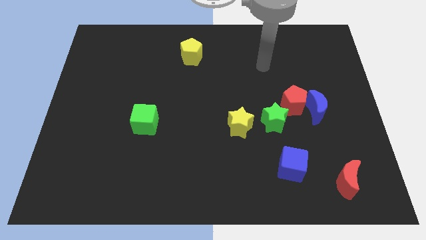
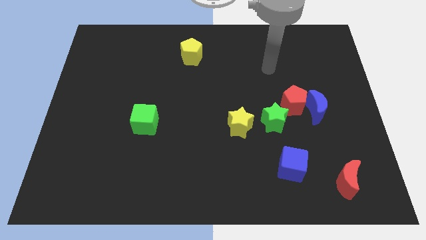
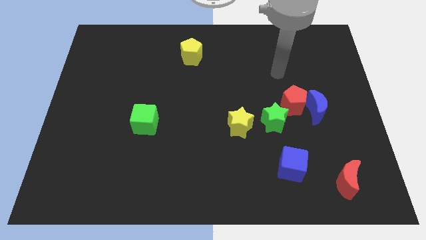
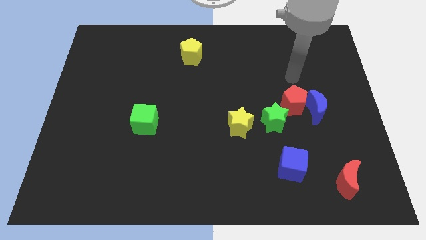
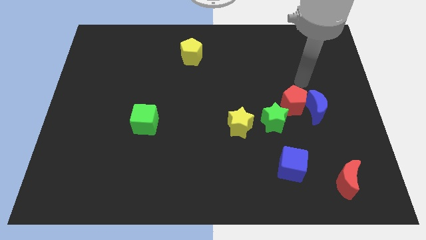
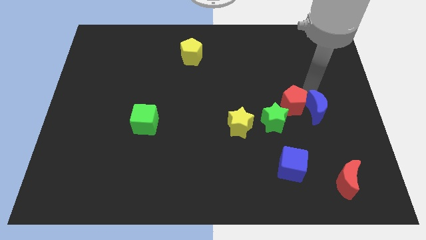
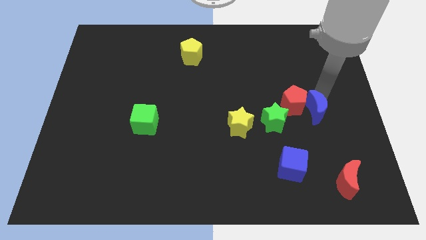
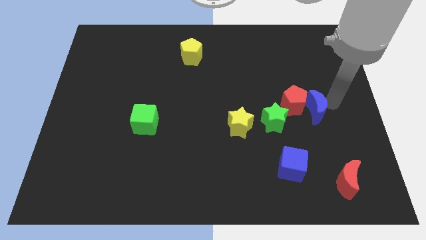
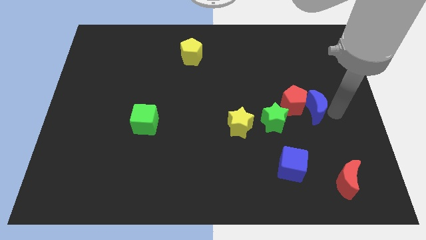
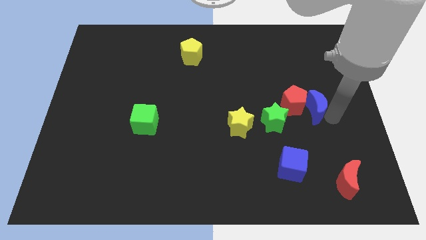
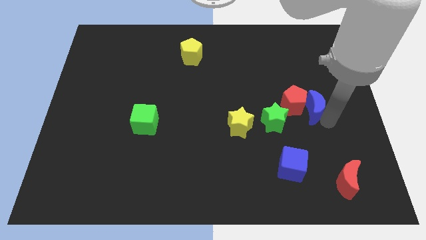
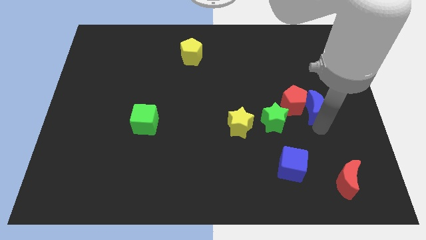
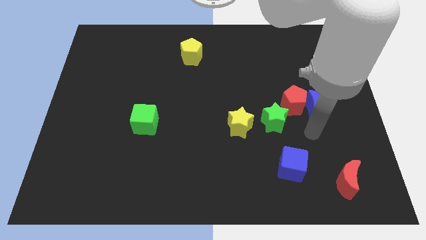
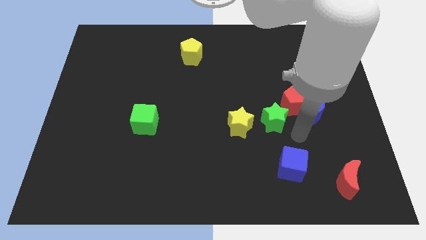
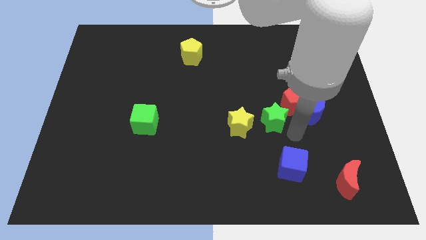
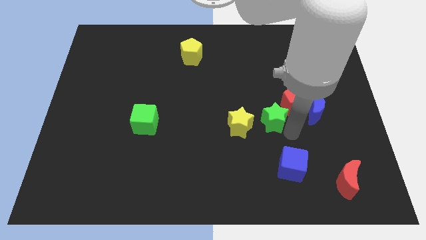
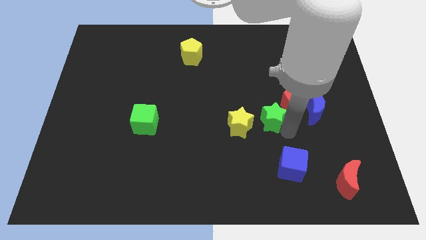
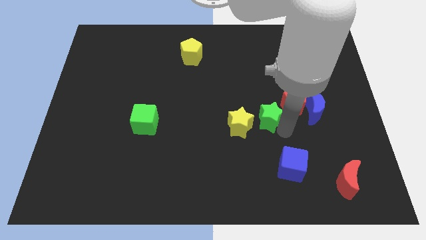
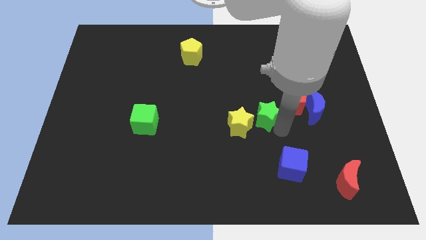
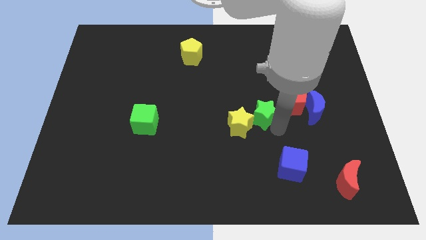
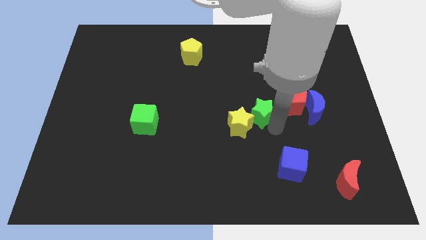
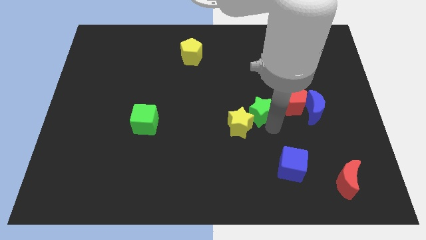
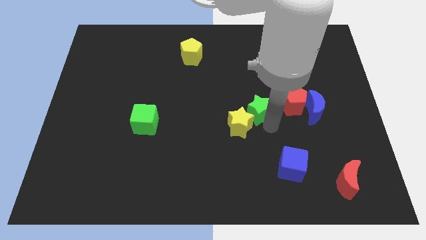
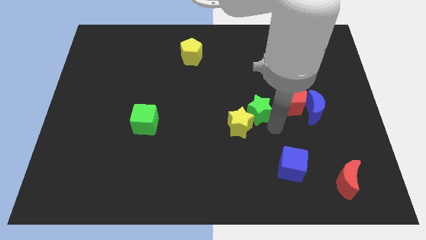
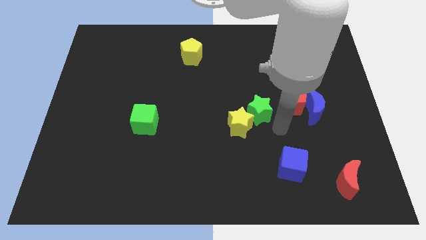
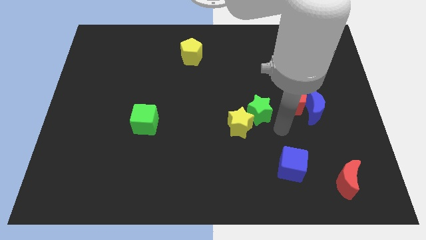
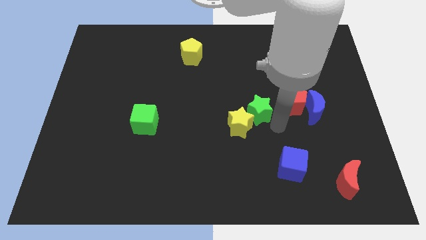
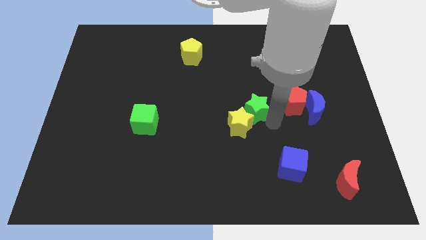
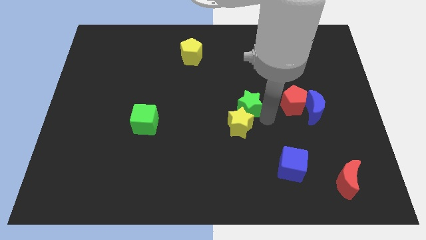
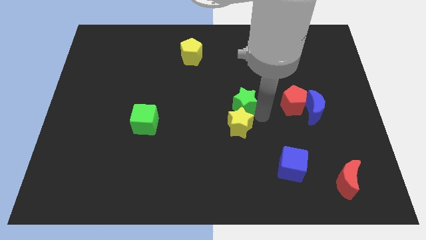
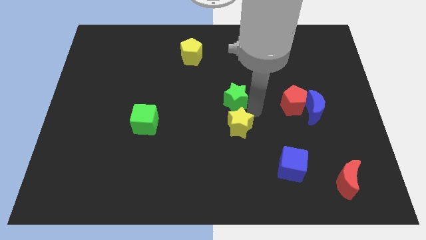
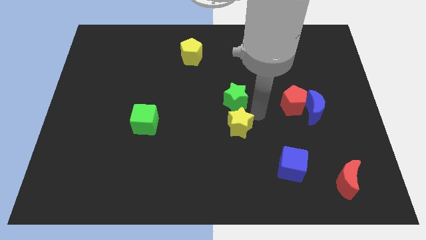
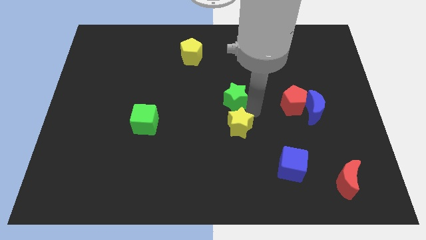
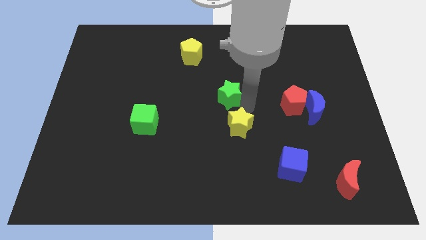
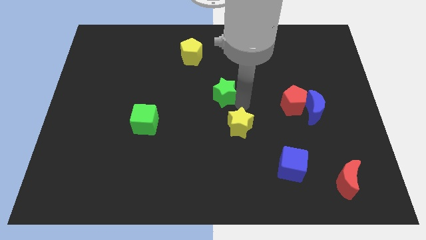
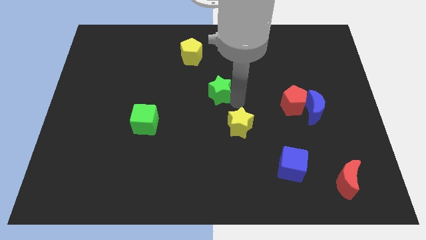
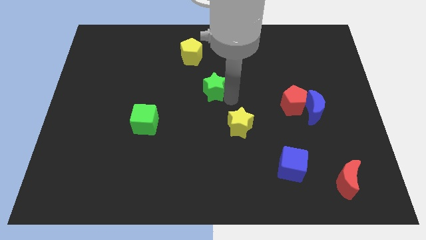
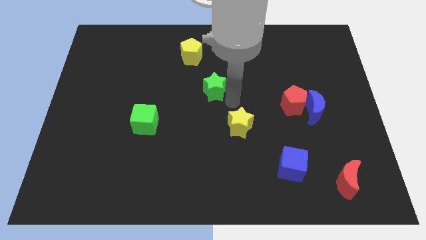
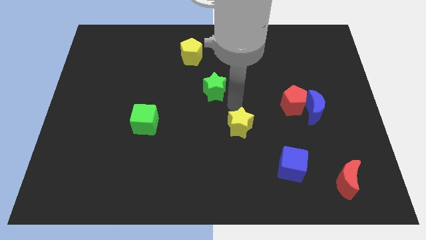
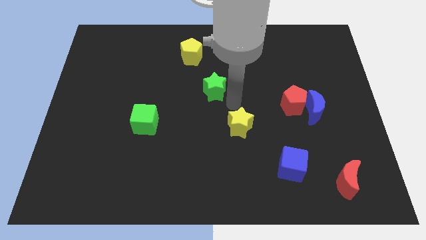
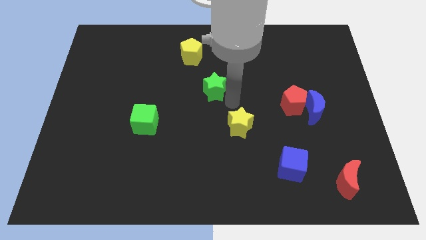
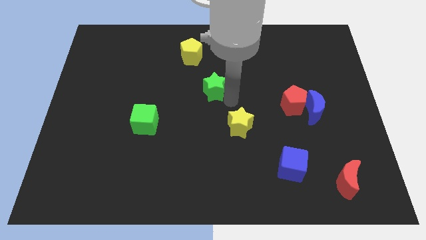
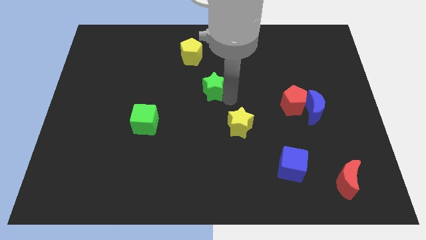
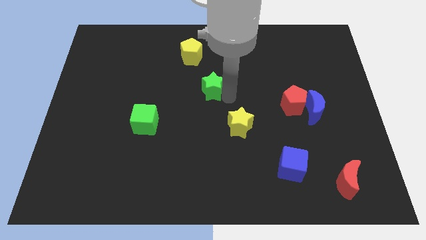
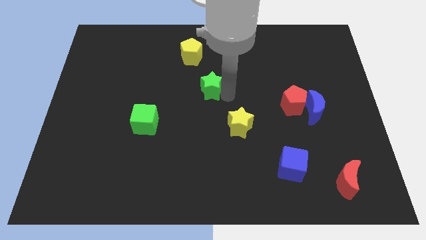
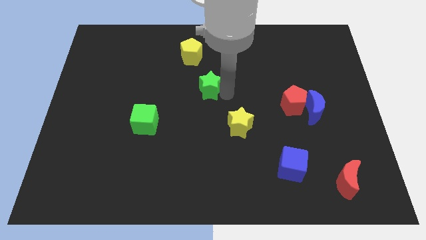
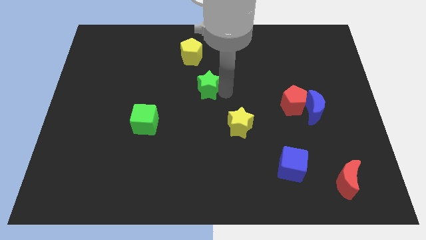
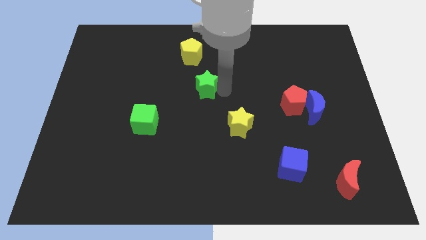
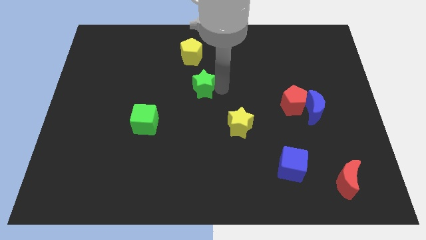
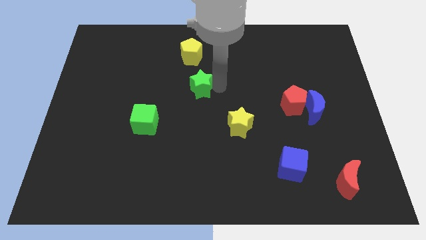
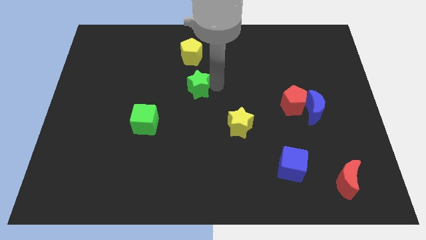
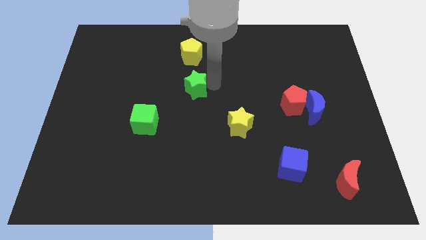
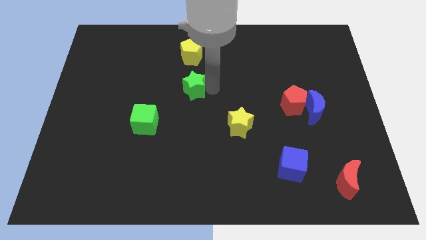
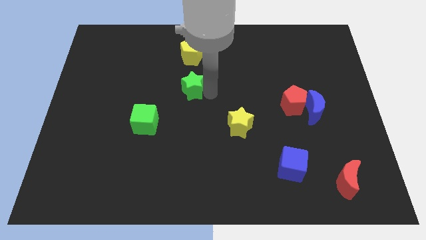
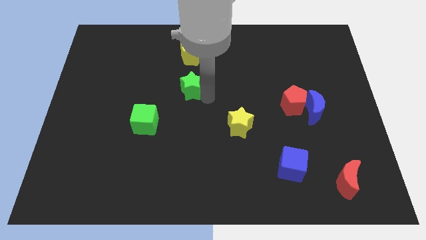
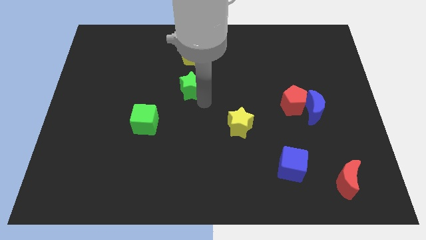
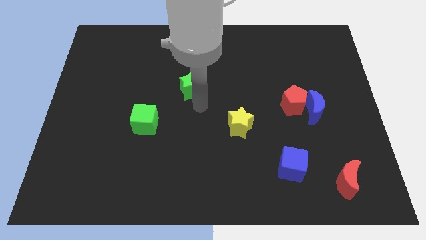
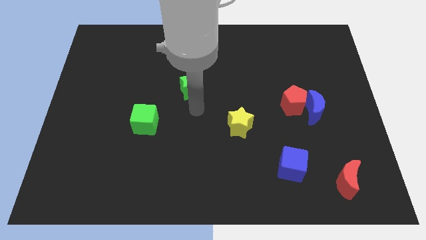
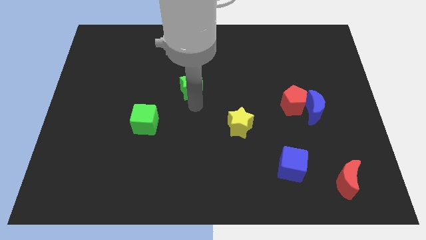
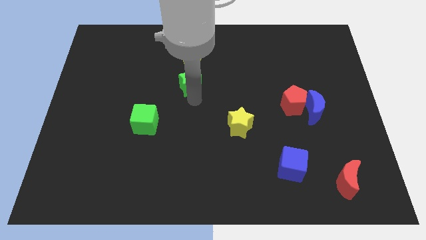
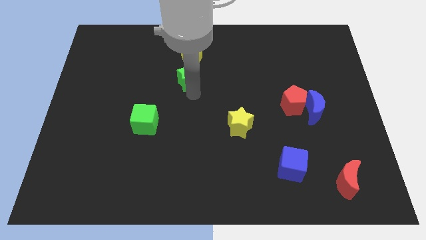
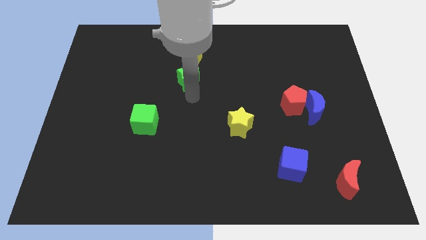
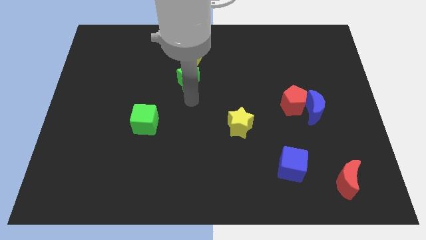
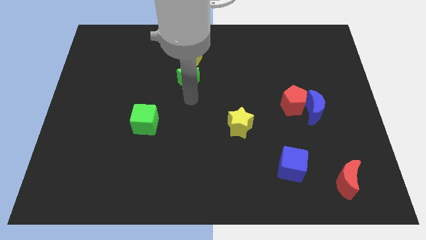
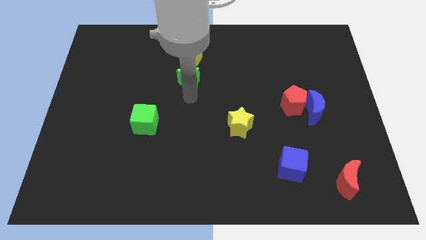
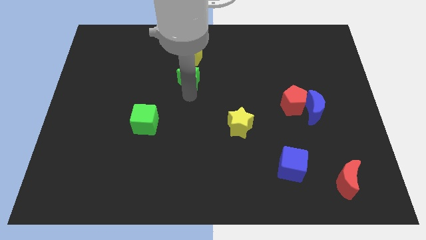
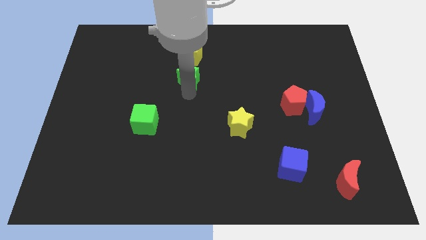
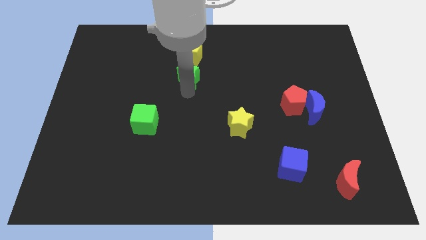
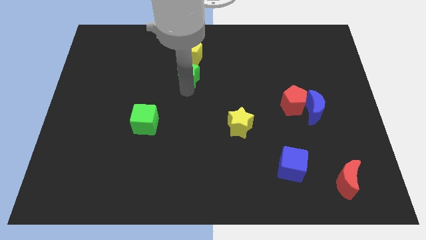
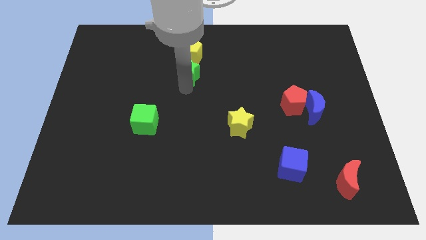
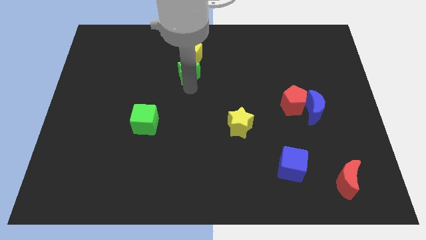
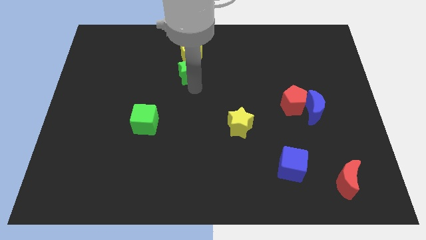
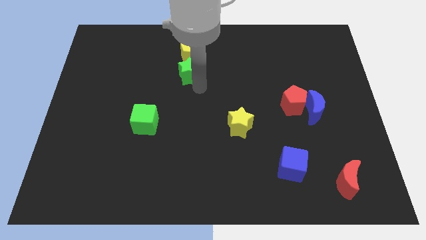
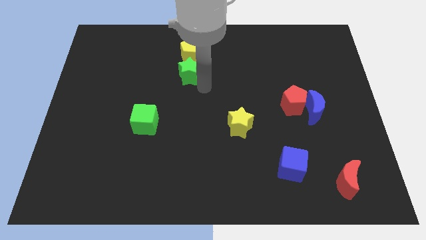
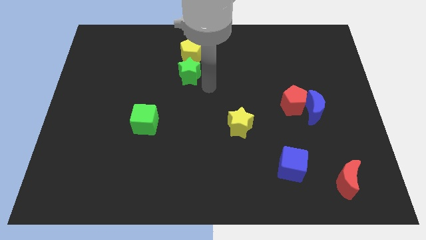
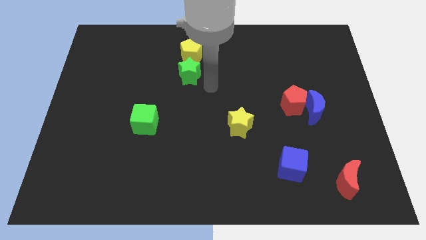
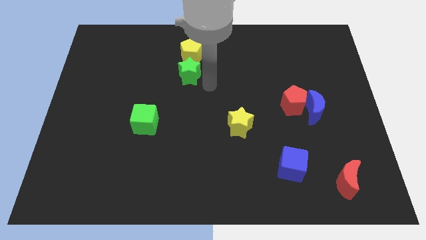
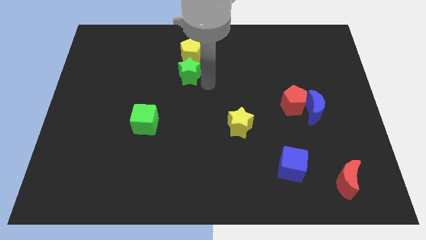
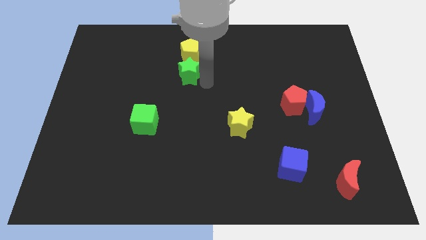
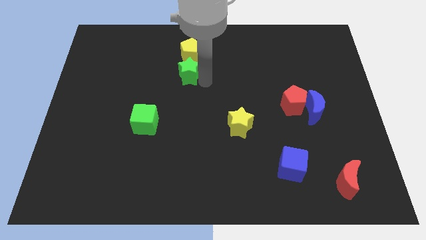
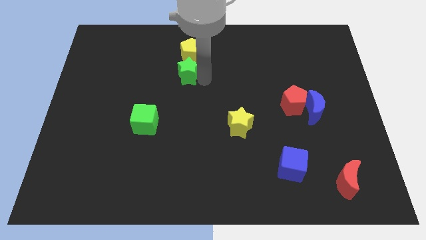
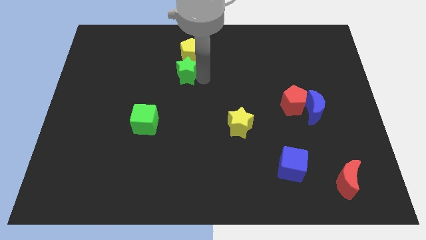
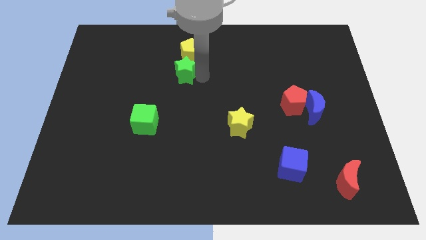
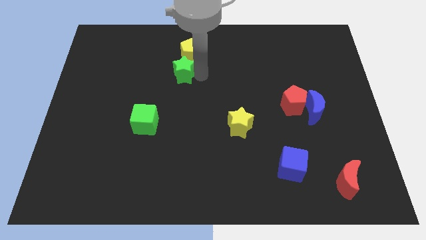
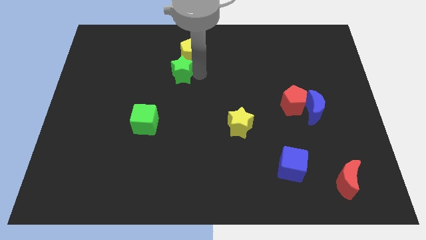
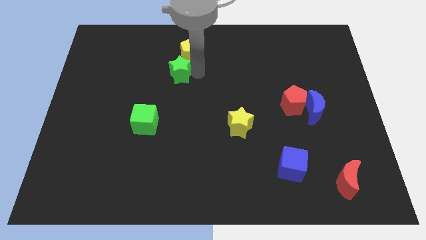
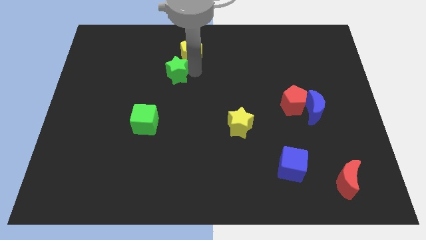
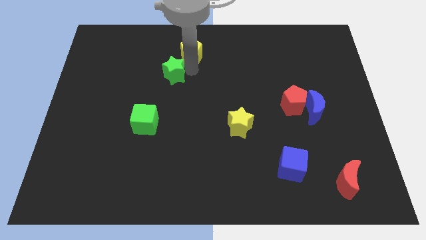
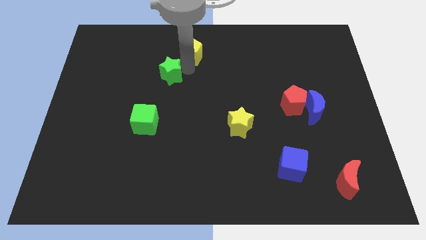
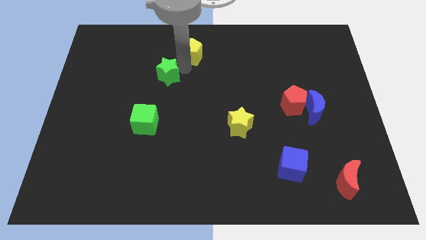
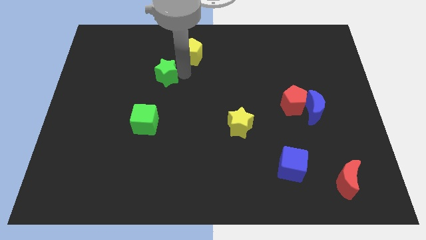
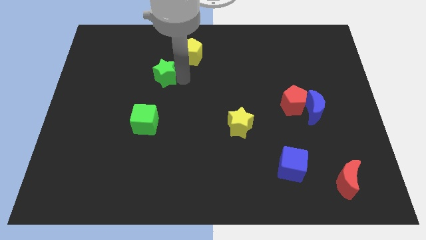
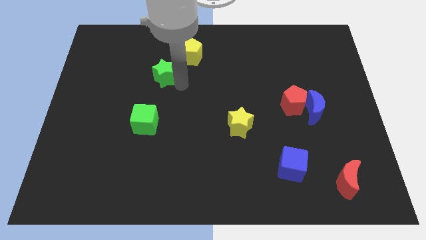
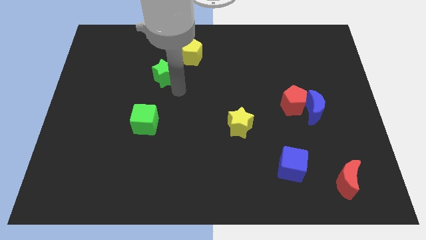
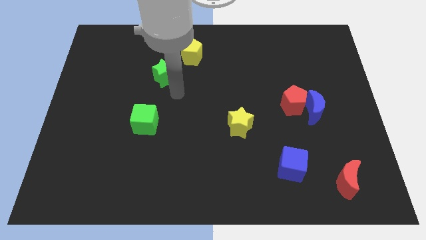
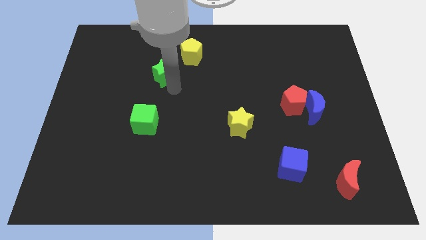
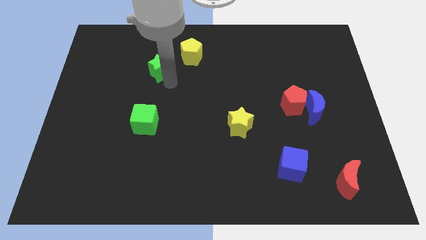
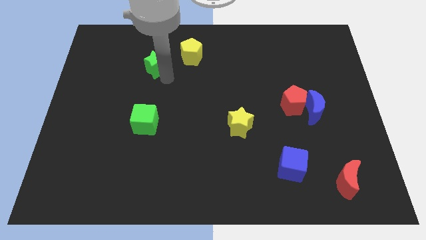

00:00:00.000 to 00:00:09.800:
push the green star to the left of the yellow pentagon
